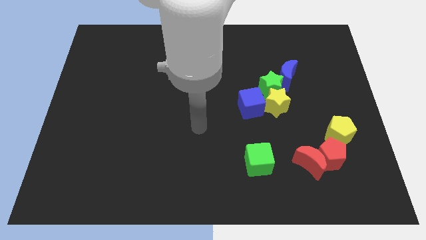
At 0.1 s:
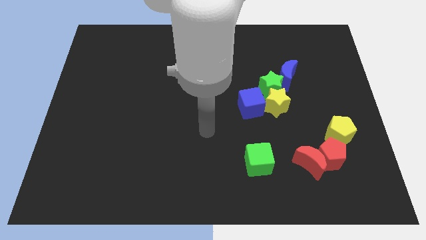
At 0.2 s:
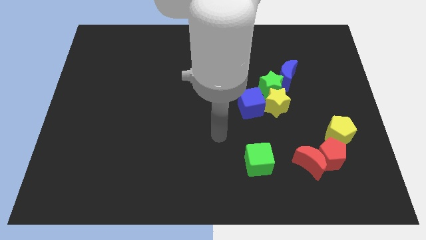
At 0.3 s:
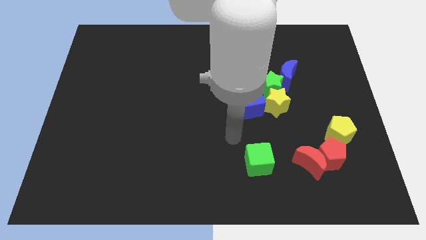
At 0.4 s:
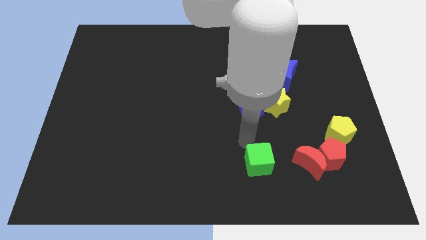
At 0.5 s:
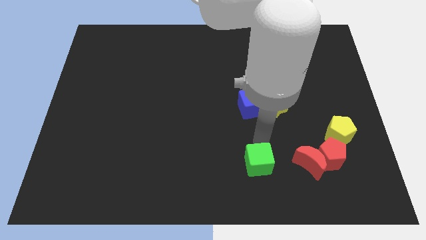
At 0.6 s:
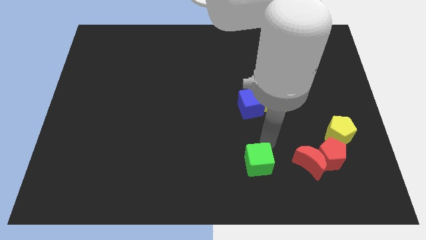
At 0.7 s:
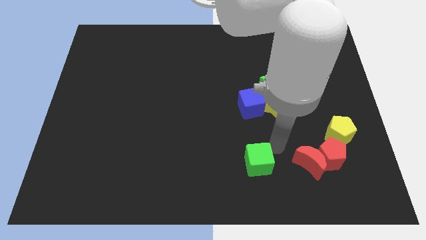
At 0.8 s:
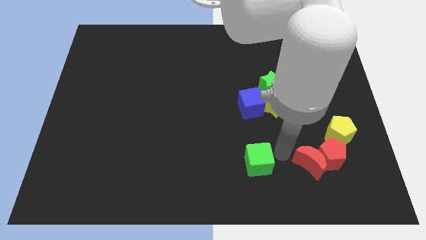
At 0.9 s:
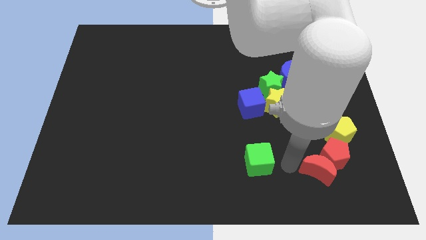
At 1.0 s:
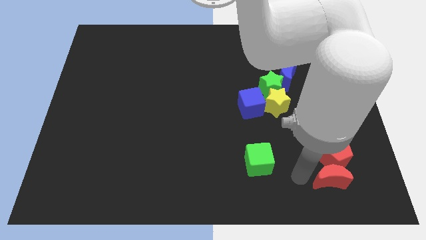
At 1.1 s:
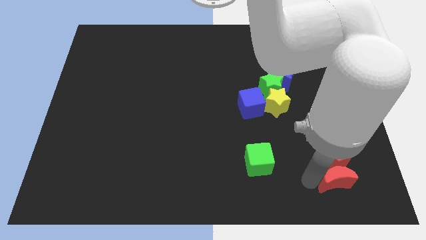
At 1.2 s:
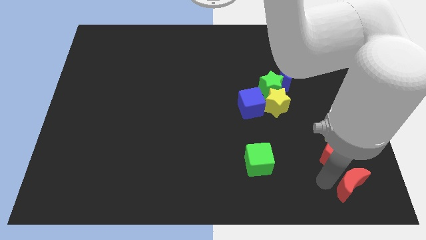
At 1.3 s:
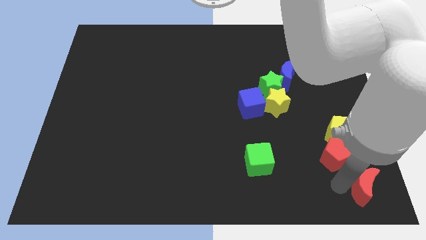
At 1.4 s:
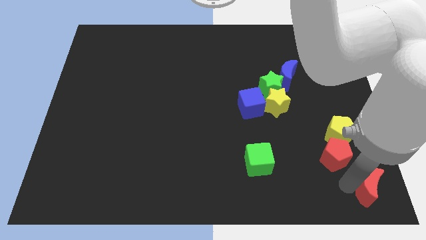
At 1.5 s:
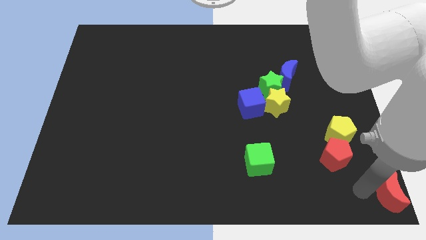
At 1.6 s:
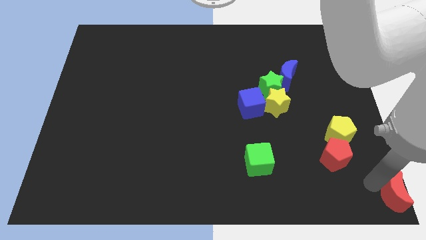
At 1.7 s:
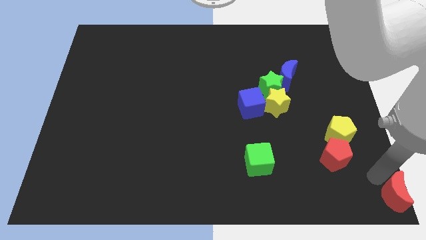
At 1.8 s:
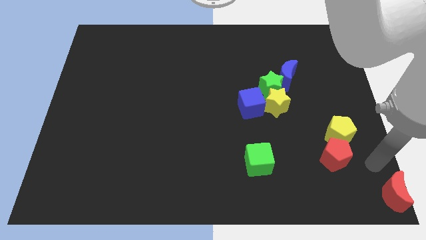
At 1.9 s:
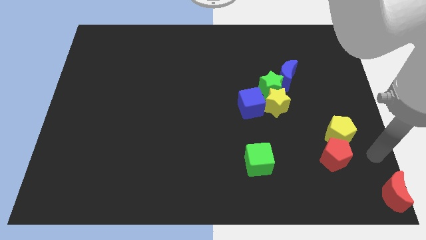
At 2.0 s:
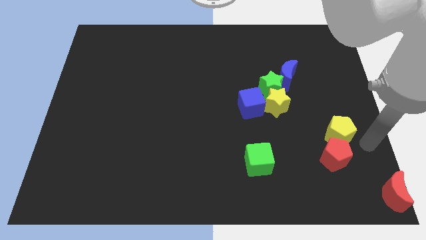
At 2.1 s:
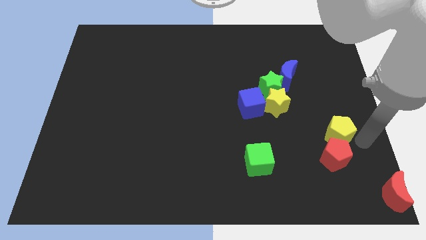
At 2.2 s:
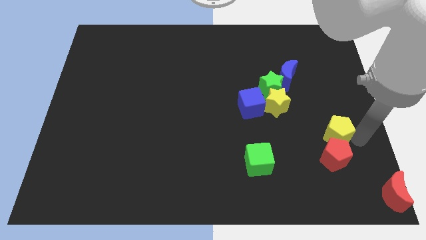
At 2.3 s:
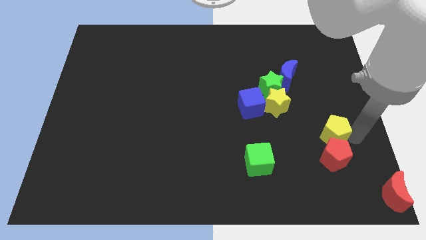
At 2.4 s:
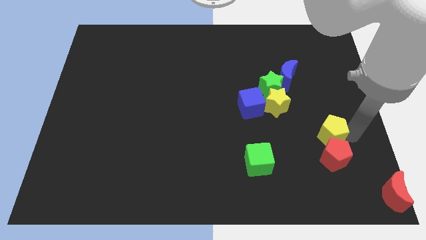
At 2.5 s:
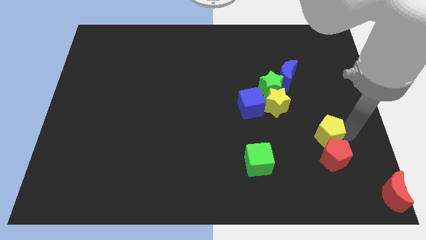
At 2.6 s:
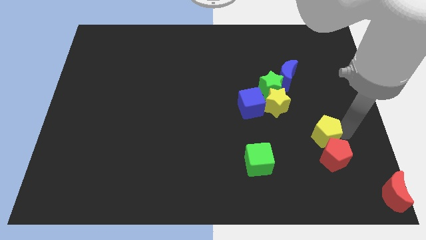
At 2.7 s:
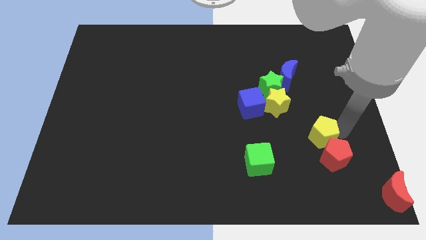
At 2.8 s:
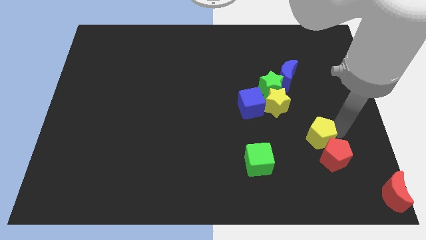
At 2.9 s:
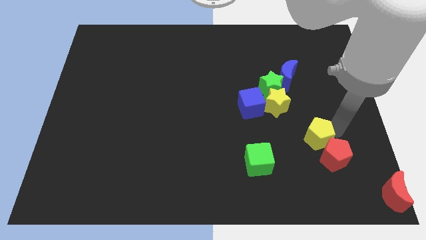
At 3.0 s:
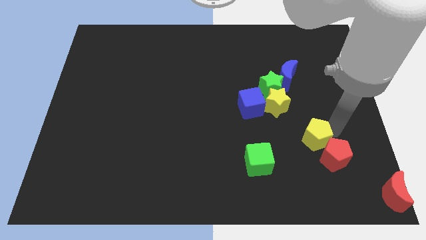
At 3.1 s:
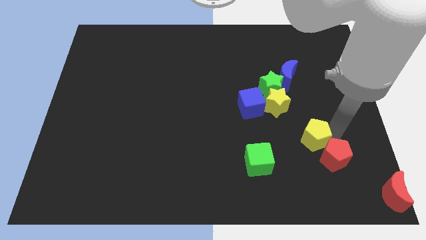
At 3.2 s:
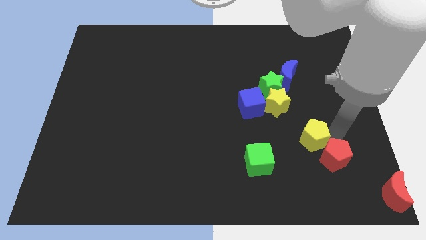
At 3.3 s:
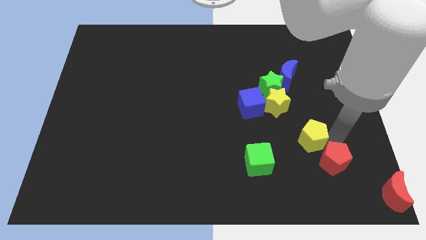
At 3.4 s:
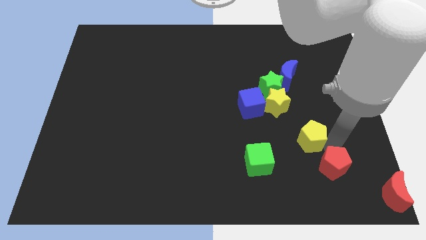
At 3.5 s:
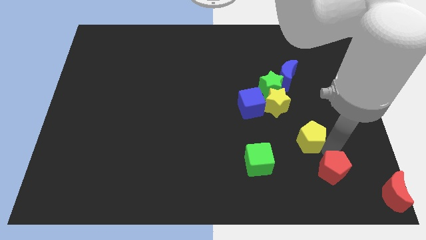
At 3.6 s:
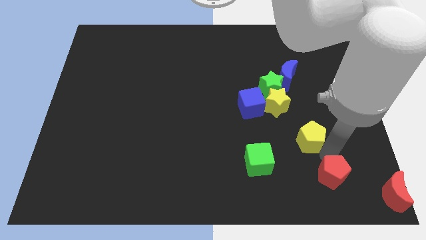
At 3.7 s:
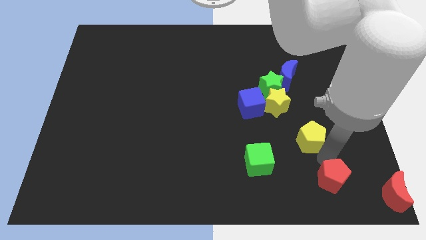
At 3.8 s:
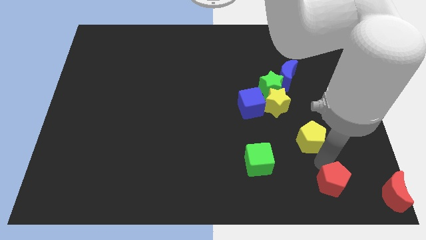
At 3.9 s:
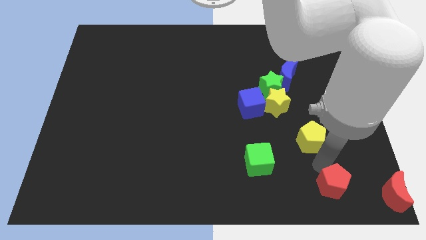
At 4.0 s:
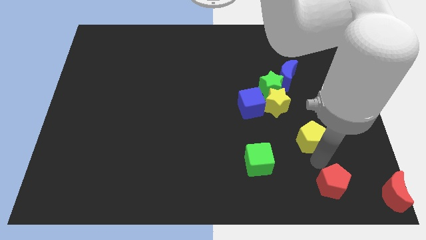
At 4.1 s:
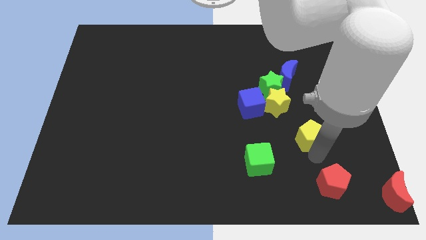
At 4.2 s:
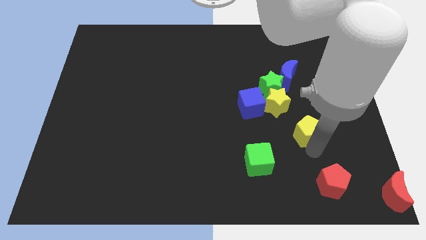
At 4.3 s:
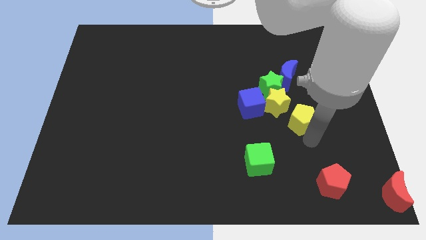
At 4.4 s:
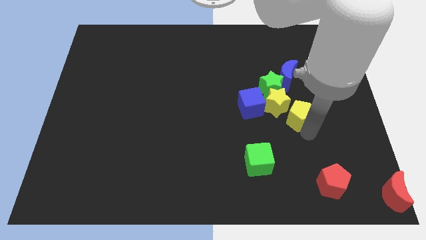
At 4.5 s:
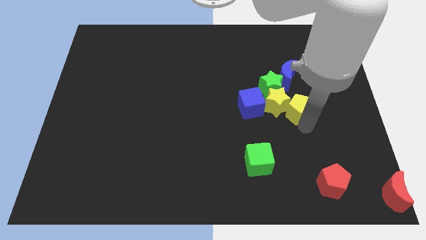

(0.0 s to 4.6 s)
slide the yellow pentagon next to the yellow star

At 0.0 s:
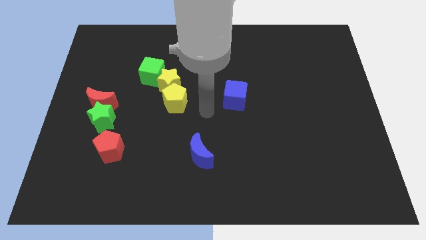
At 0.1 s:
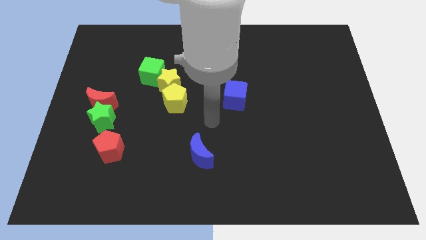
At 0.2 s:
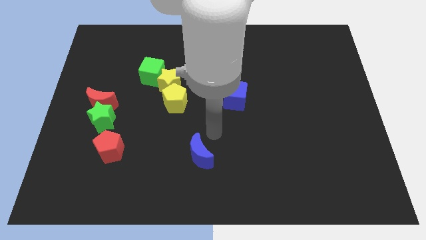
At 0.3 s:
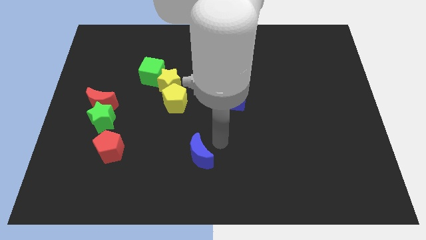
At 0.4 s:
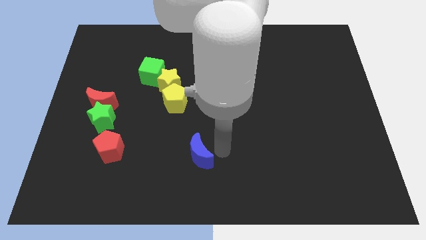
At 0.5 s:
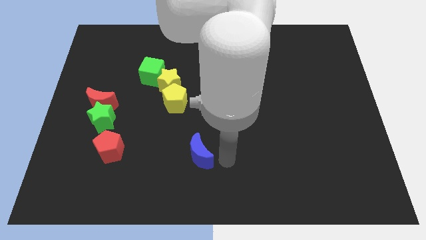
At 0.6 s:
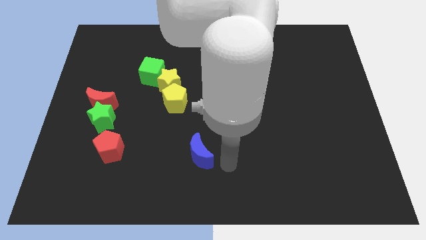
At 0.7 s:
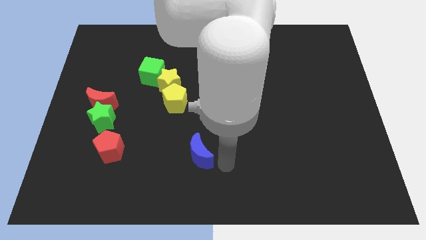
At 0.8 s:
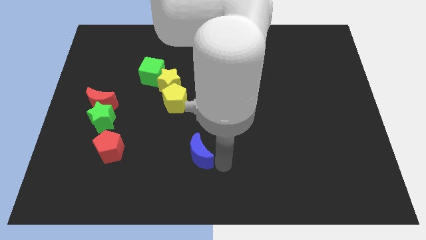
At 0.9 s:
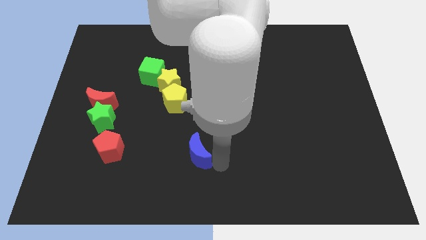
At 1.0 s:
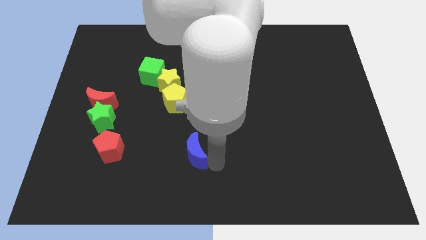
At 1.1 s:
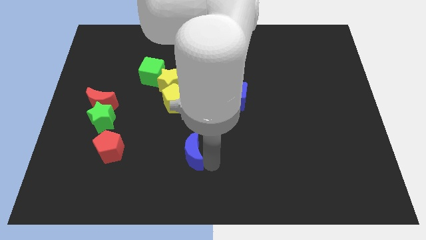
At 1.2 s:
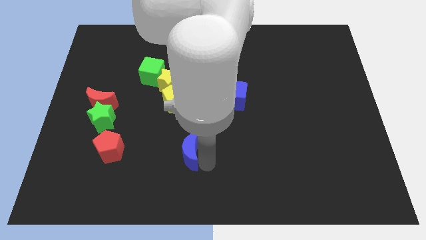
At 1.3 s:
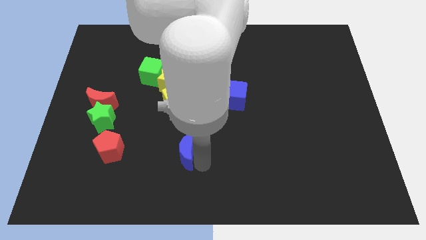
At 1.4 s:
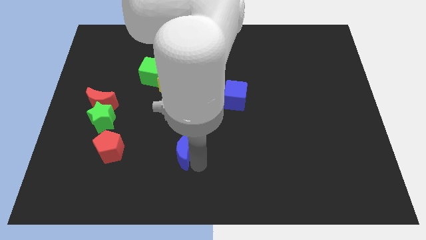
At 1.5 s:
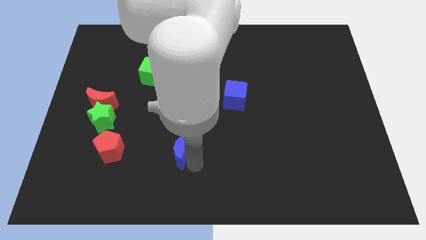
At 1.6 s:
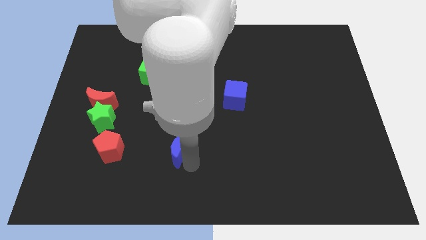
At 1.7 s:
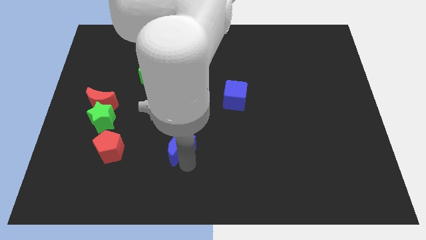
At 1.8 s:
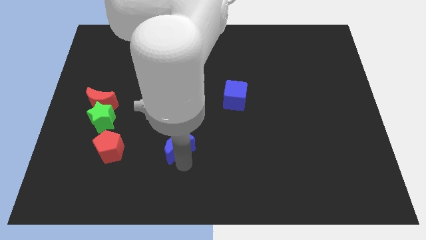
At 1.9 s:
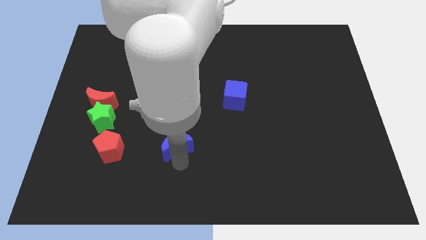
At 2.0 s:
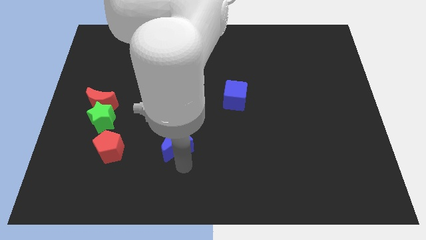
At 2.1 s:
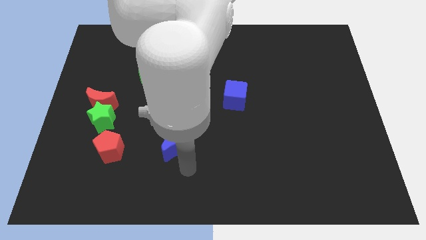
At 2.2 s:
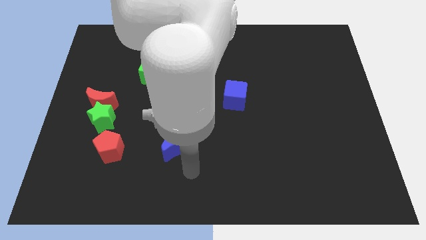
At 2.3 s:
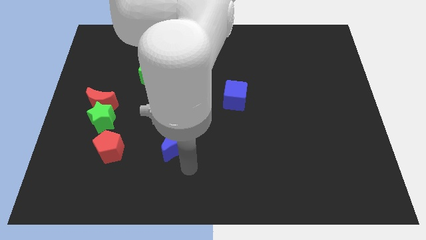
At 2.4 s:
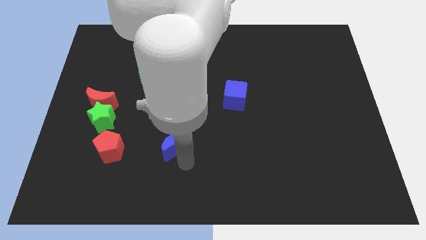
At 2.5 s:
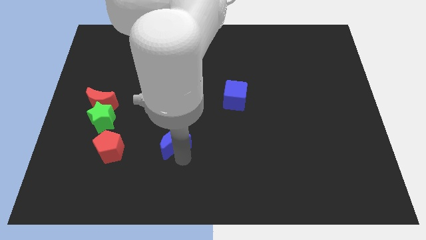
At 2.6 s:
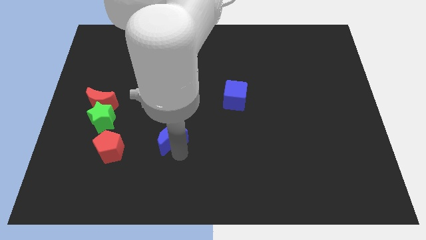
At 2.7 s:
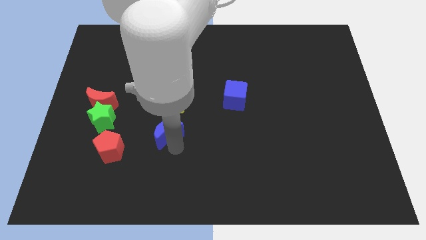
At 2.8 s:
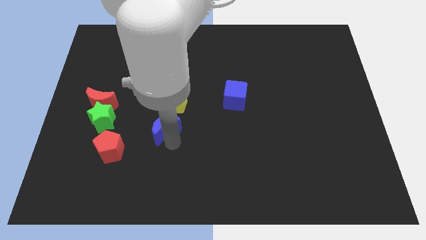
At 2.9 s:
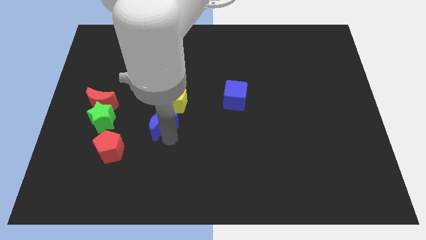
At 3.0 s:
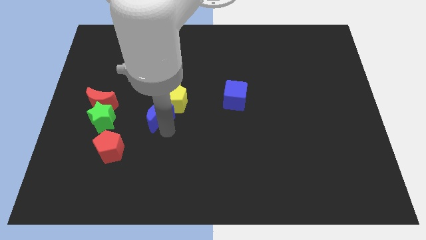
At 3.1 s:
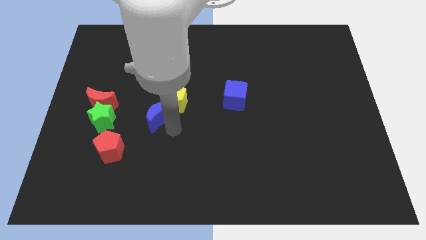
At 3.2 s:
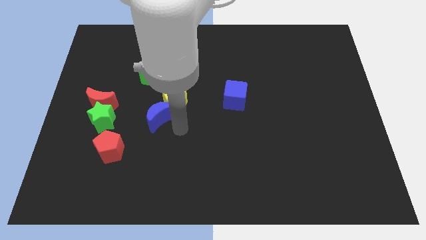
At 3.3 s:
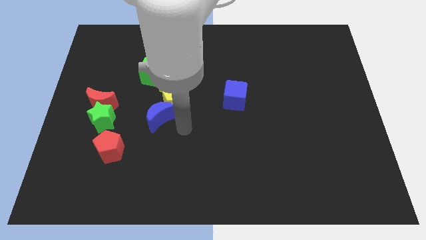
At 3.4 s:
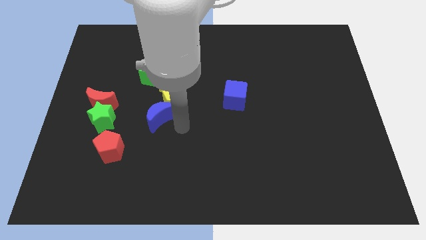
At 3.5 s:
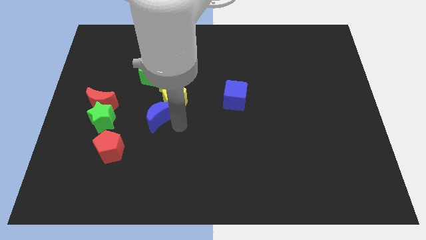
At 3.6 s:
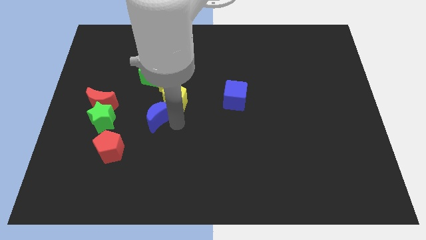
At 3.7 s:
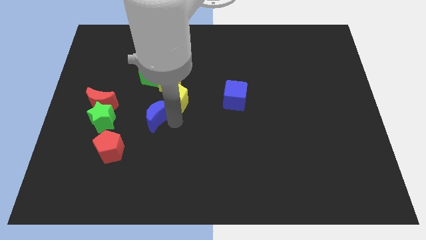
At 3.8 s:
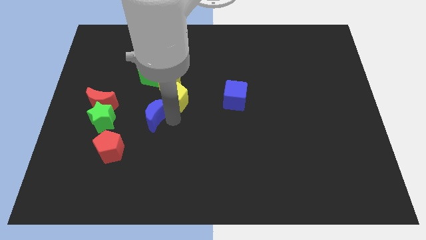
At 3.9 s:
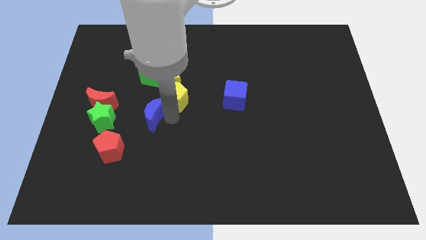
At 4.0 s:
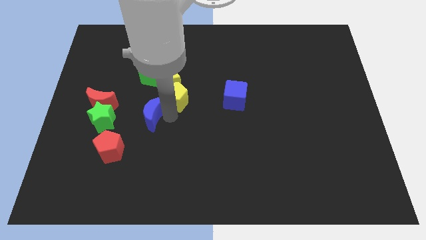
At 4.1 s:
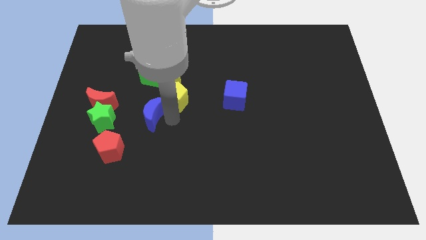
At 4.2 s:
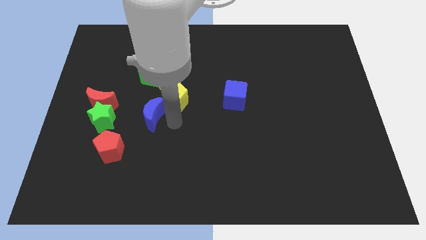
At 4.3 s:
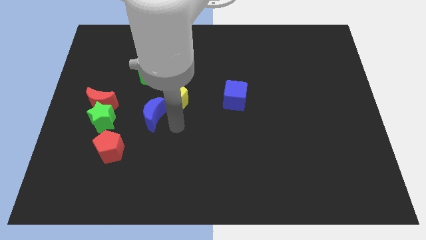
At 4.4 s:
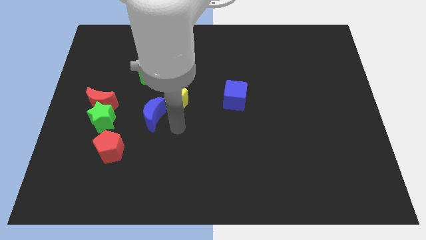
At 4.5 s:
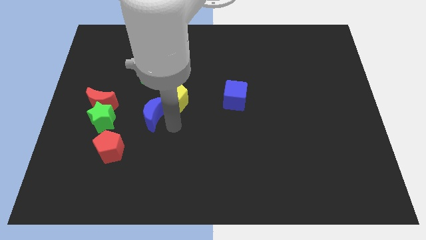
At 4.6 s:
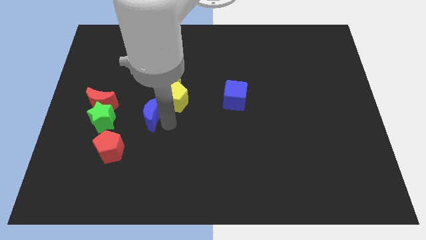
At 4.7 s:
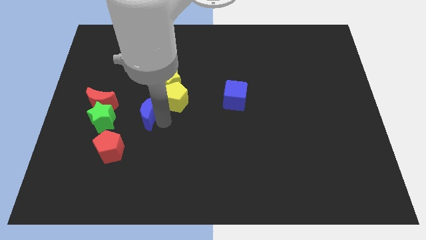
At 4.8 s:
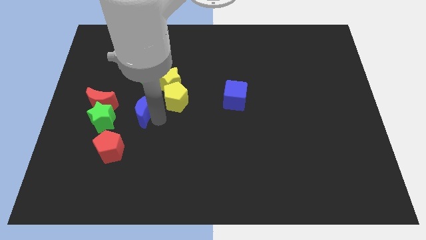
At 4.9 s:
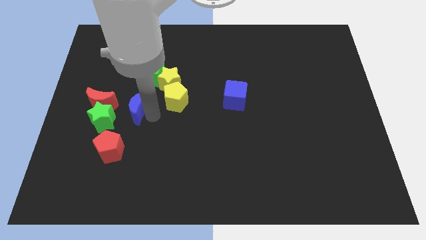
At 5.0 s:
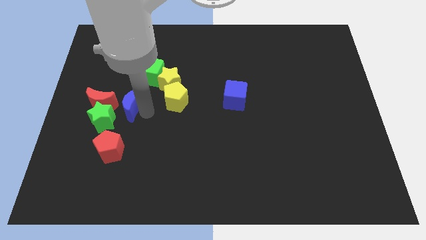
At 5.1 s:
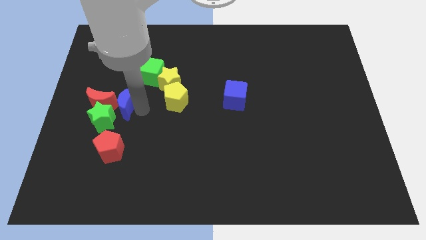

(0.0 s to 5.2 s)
move the blue moon towards the red moon
